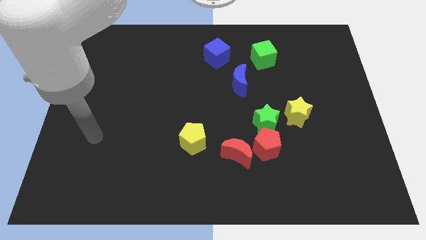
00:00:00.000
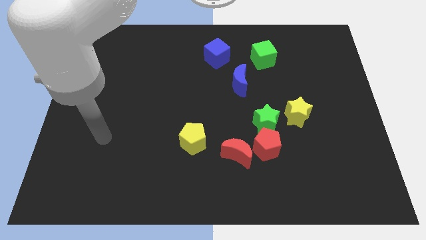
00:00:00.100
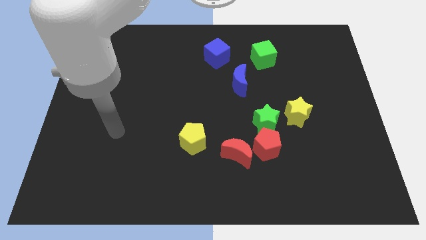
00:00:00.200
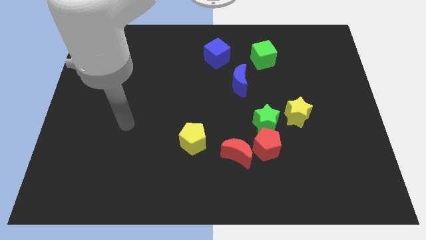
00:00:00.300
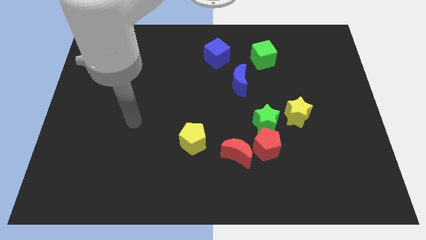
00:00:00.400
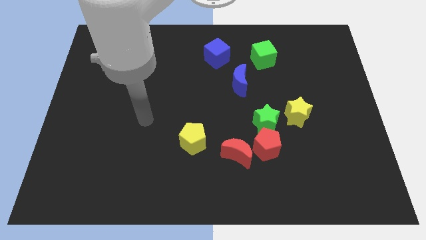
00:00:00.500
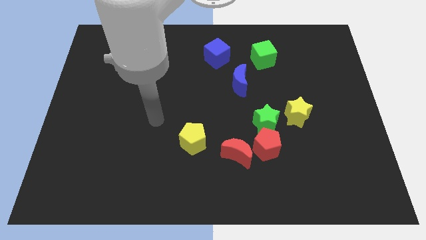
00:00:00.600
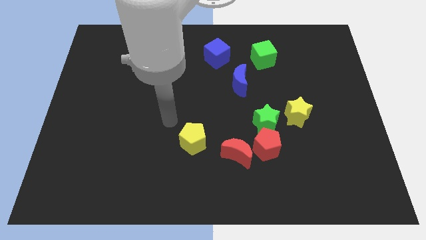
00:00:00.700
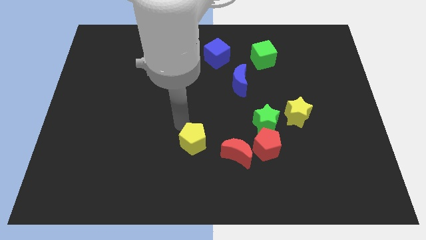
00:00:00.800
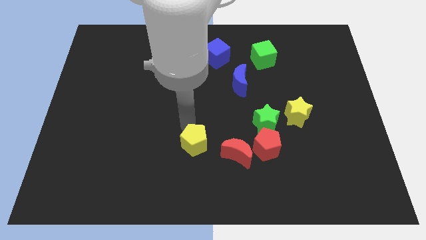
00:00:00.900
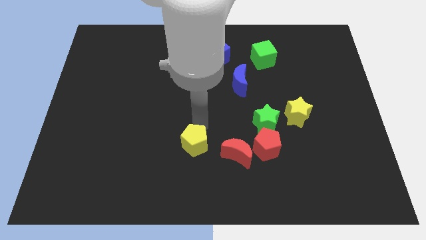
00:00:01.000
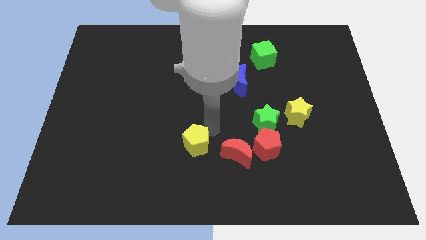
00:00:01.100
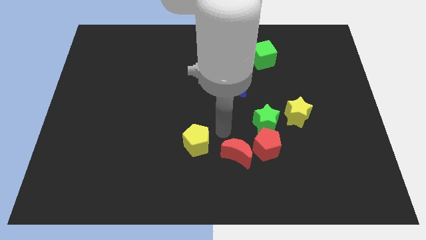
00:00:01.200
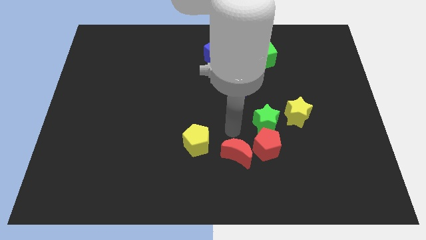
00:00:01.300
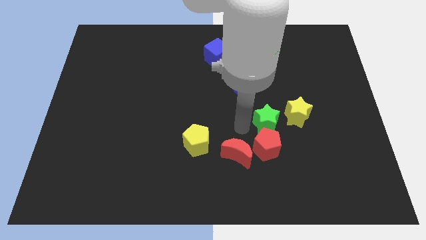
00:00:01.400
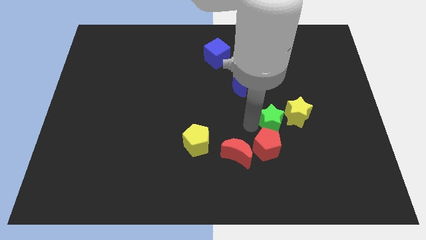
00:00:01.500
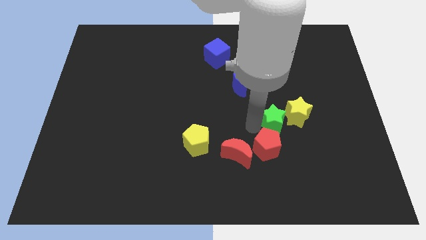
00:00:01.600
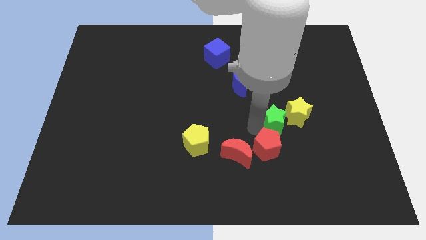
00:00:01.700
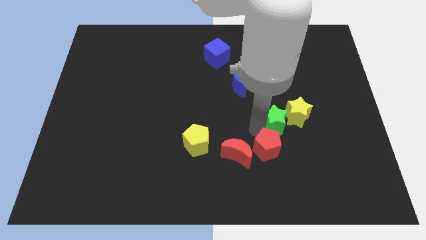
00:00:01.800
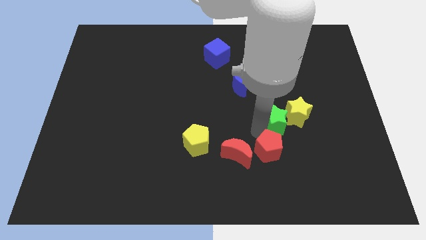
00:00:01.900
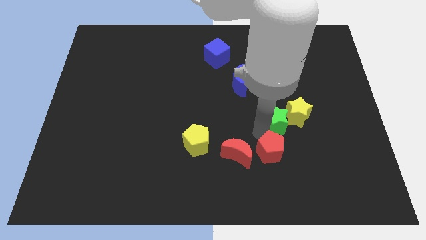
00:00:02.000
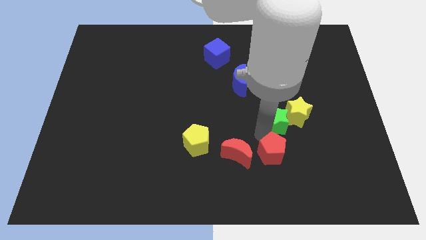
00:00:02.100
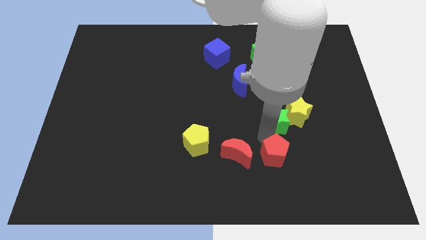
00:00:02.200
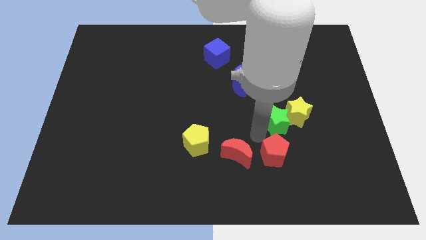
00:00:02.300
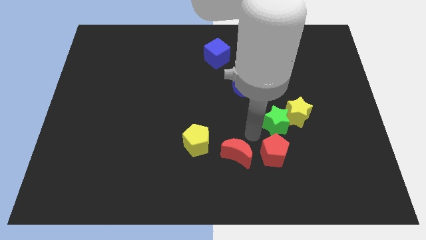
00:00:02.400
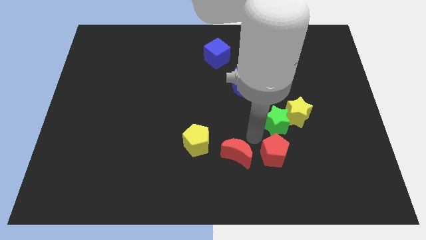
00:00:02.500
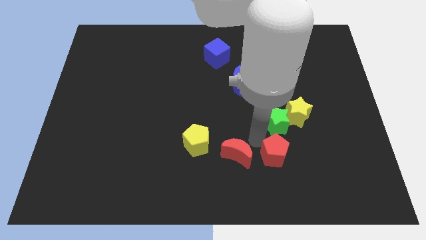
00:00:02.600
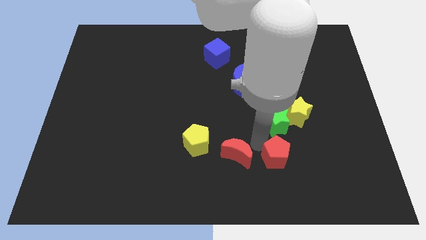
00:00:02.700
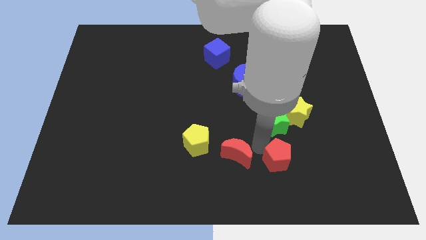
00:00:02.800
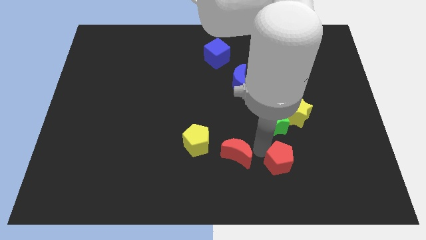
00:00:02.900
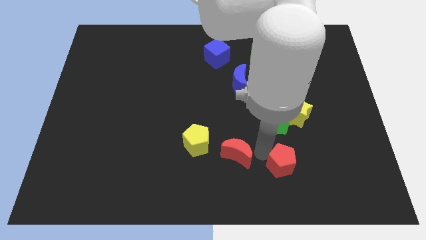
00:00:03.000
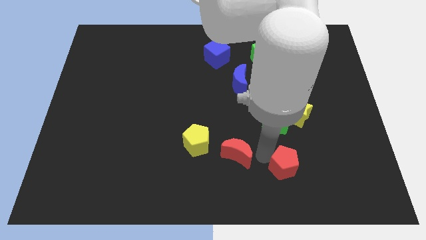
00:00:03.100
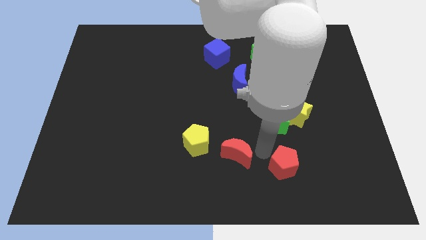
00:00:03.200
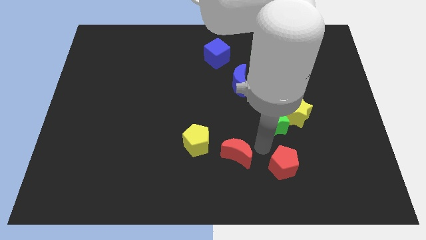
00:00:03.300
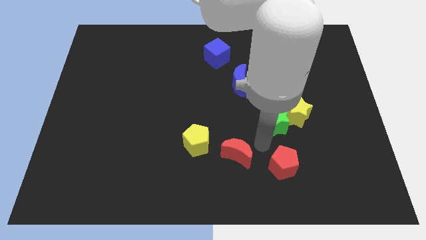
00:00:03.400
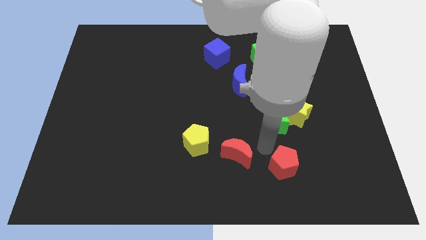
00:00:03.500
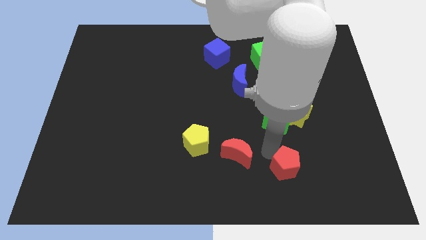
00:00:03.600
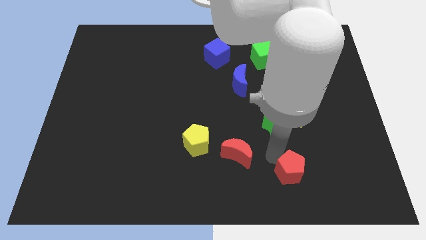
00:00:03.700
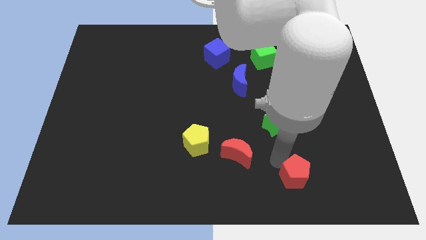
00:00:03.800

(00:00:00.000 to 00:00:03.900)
pull the red pentagon apart from the green star and red moon

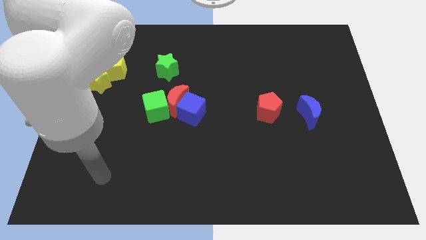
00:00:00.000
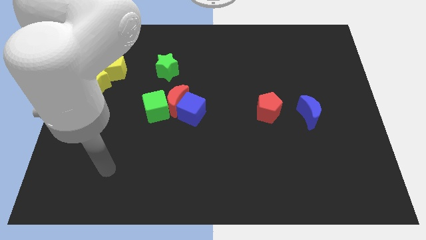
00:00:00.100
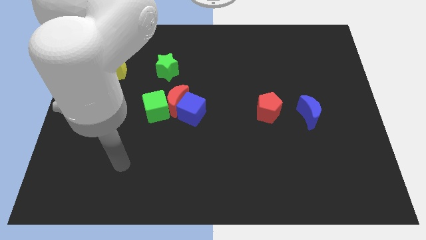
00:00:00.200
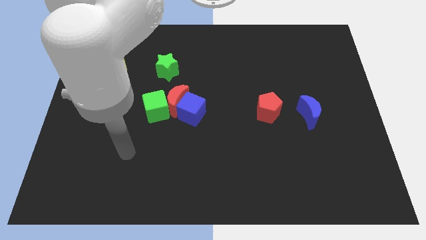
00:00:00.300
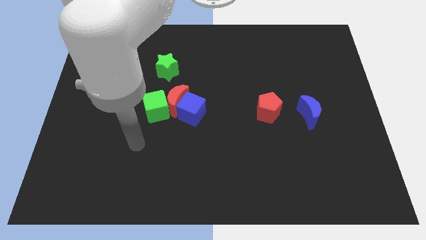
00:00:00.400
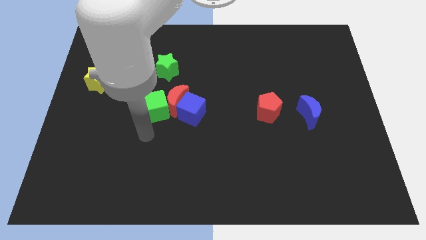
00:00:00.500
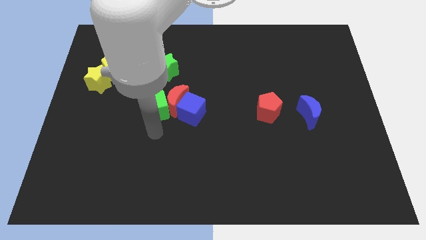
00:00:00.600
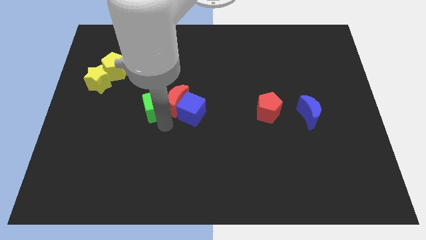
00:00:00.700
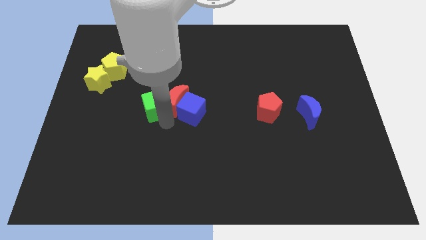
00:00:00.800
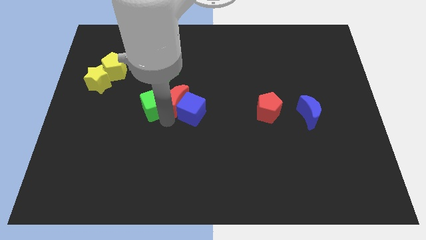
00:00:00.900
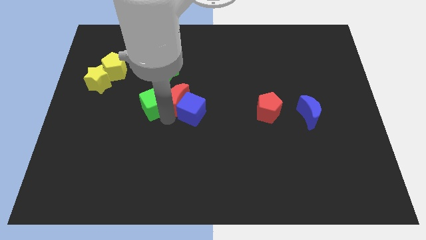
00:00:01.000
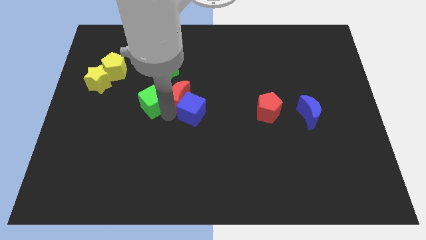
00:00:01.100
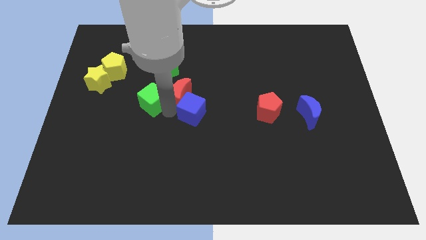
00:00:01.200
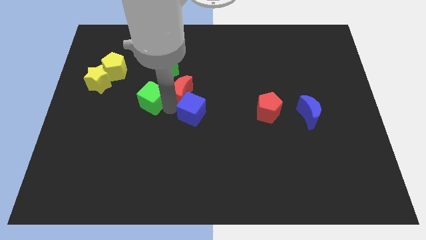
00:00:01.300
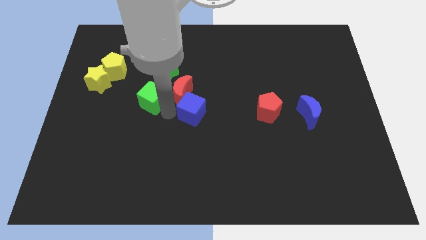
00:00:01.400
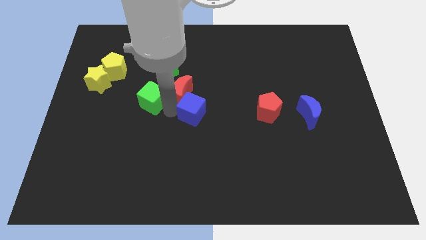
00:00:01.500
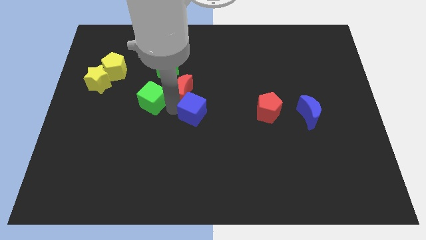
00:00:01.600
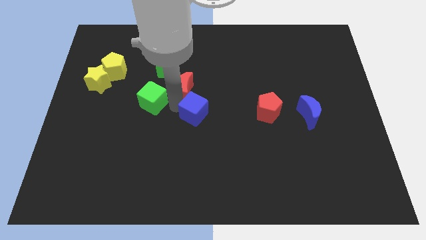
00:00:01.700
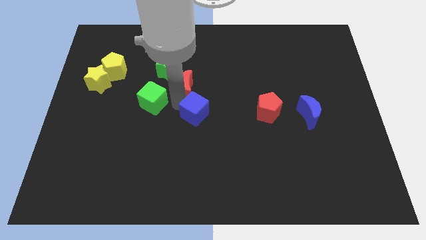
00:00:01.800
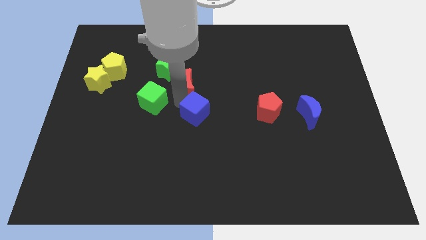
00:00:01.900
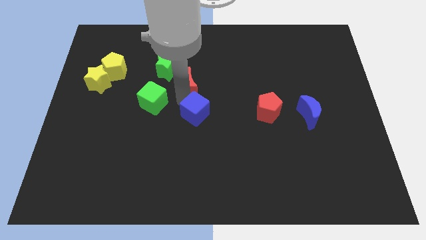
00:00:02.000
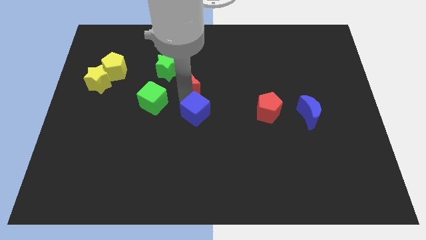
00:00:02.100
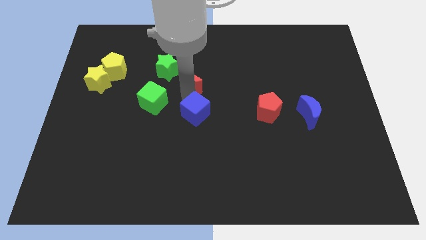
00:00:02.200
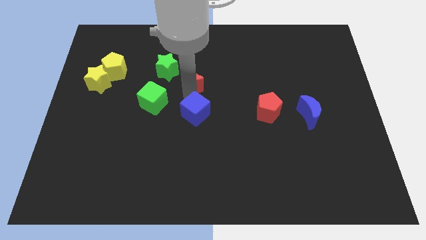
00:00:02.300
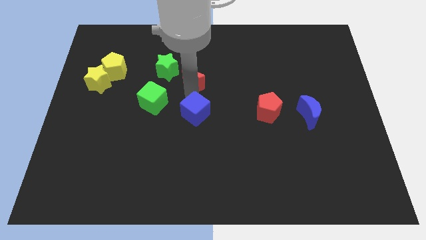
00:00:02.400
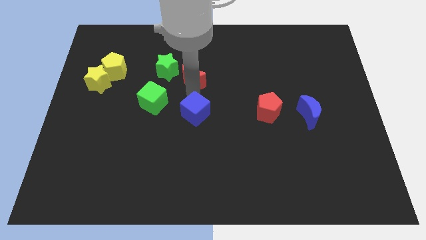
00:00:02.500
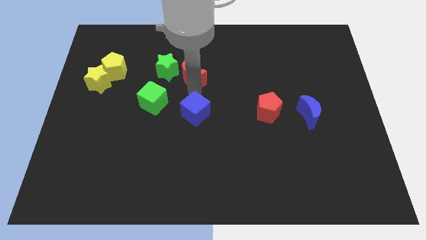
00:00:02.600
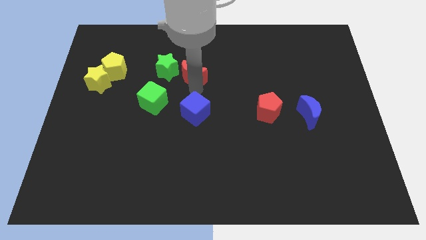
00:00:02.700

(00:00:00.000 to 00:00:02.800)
separate the red moon from the blue cube and green cube

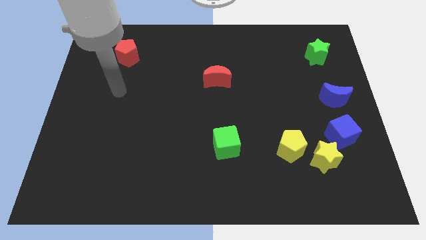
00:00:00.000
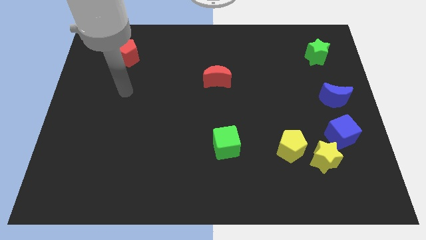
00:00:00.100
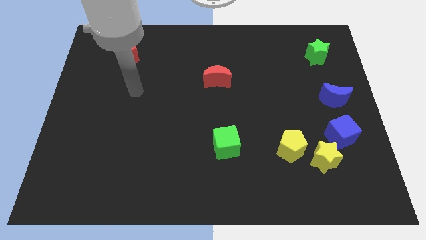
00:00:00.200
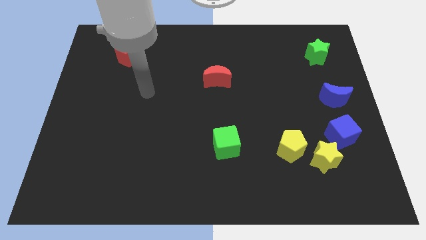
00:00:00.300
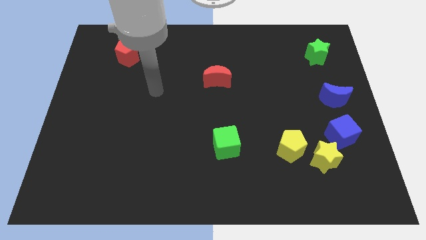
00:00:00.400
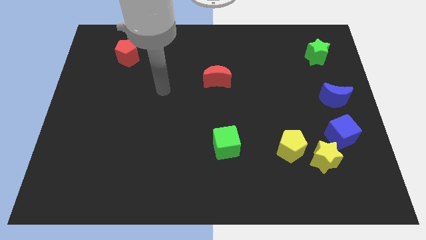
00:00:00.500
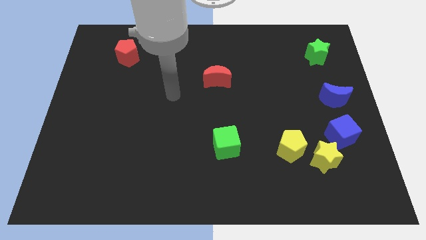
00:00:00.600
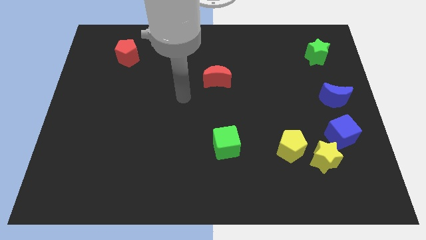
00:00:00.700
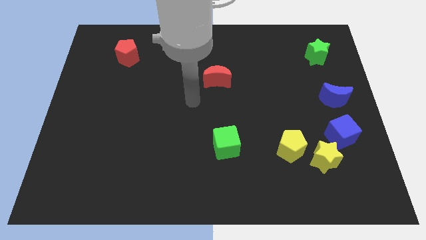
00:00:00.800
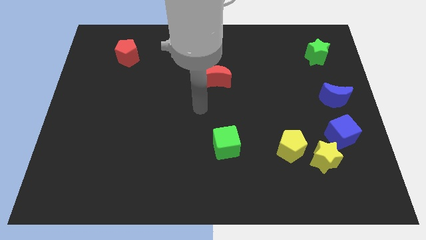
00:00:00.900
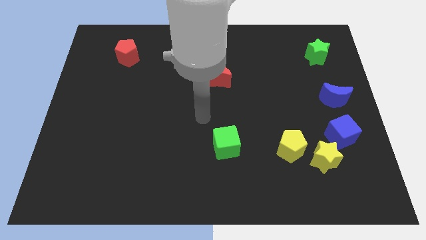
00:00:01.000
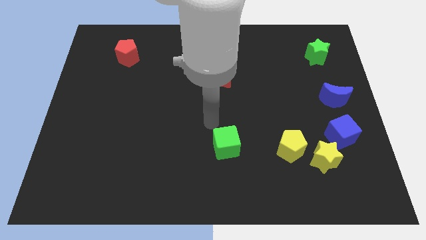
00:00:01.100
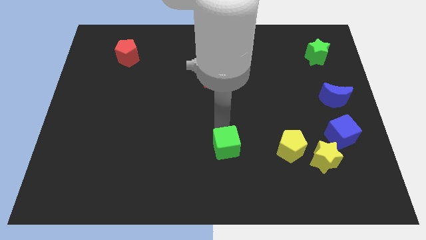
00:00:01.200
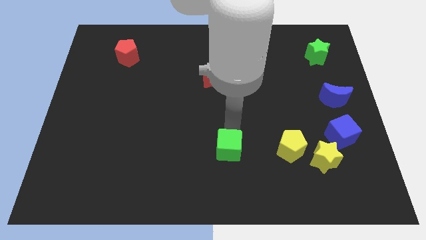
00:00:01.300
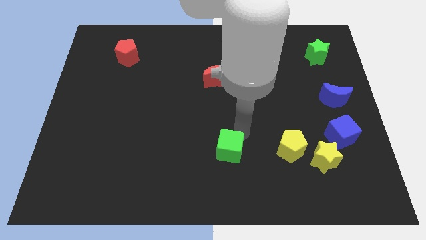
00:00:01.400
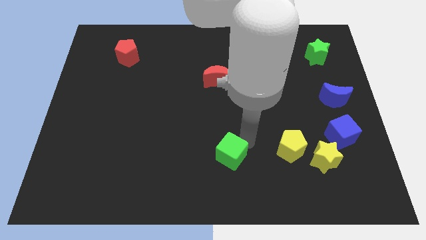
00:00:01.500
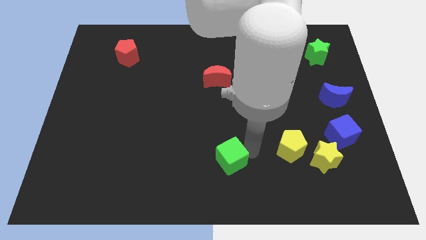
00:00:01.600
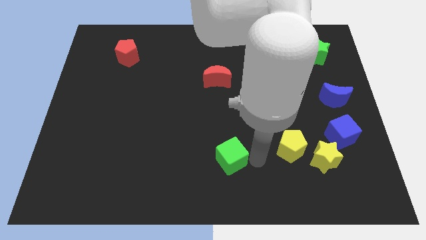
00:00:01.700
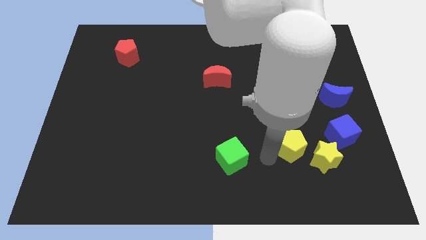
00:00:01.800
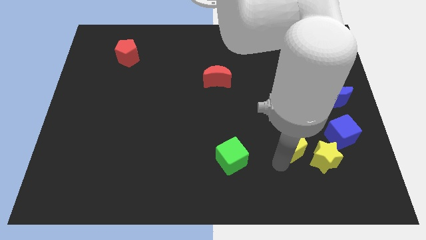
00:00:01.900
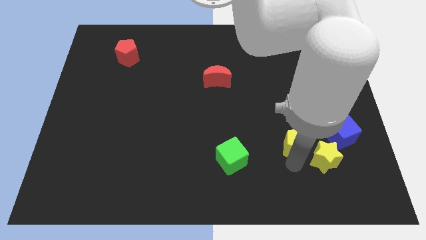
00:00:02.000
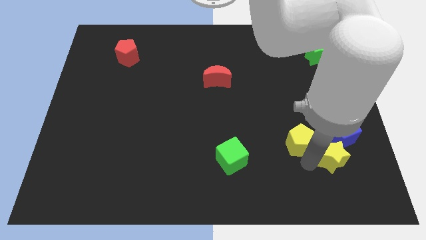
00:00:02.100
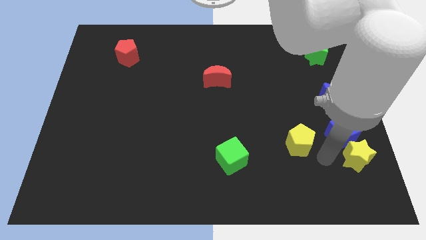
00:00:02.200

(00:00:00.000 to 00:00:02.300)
move the yellow pentagon away from the yellow star

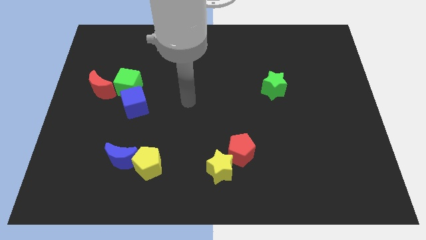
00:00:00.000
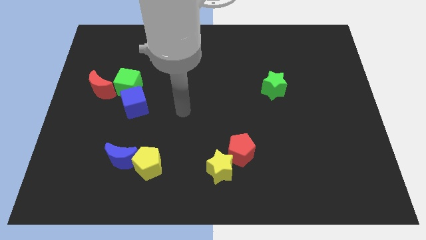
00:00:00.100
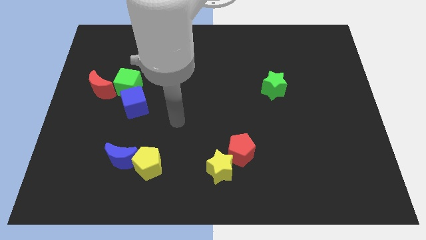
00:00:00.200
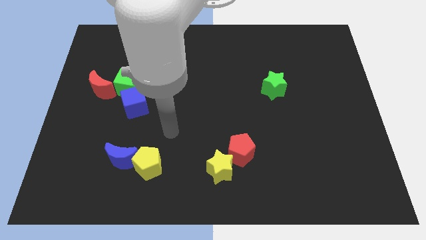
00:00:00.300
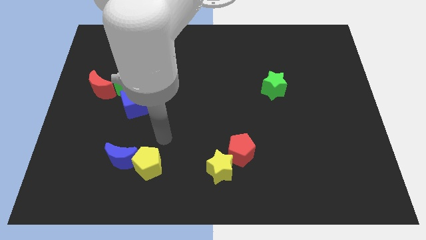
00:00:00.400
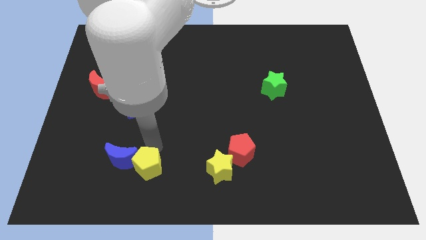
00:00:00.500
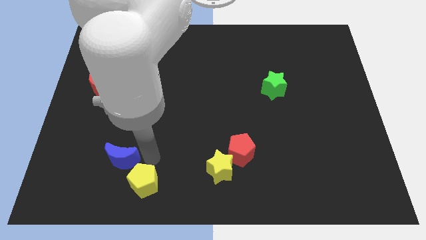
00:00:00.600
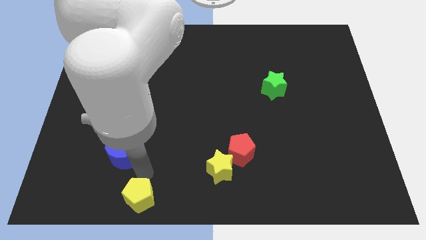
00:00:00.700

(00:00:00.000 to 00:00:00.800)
pull the blue moon apart from the yellow pentagon
